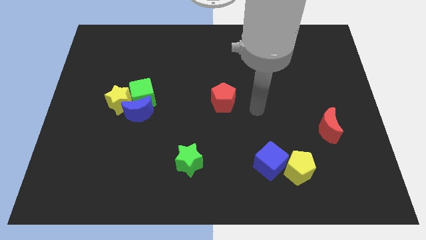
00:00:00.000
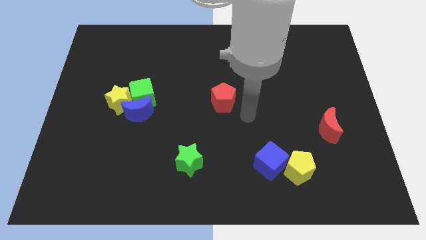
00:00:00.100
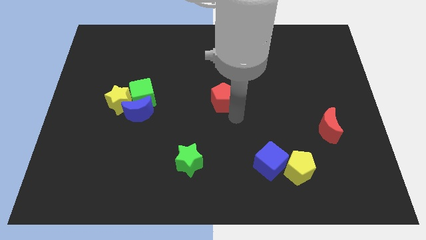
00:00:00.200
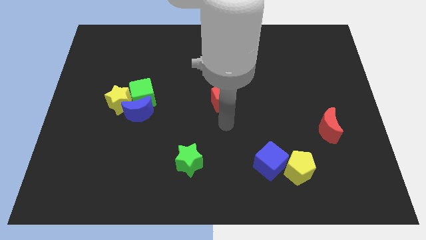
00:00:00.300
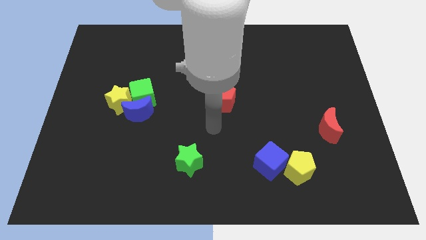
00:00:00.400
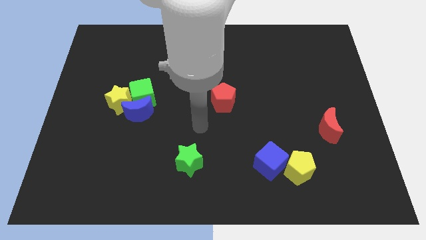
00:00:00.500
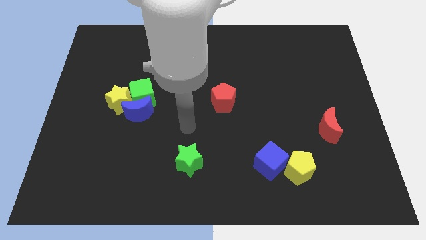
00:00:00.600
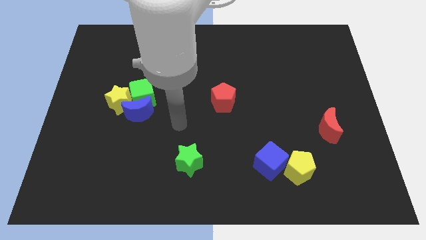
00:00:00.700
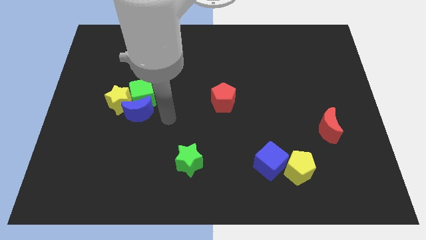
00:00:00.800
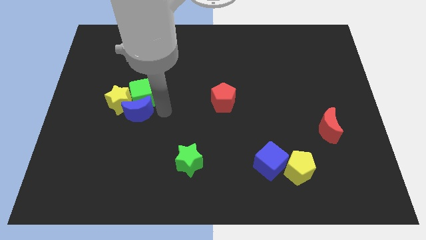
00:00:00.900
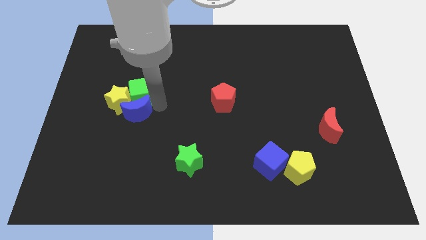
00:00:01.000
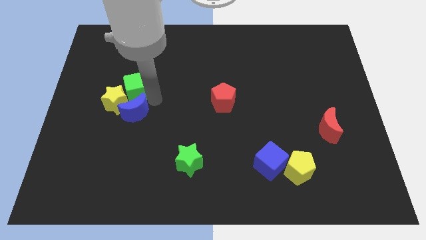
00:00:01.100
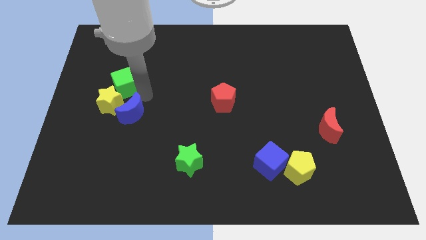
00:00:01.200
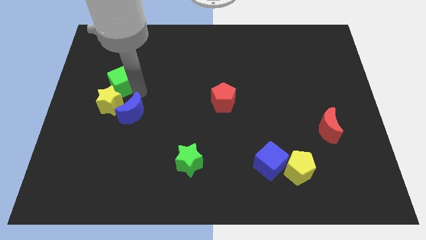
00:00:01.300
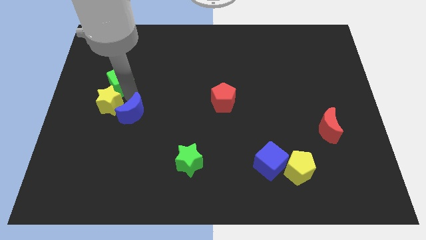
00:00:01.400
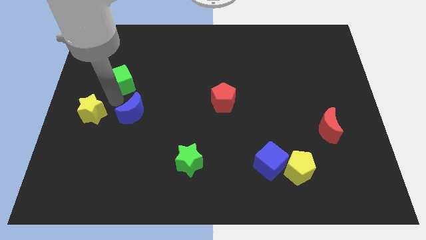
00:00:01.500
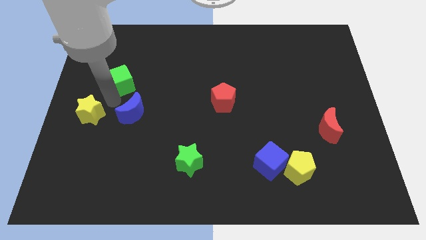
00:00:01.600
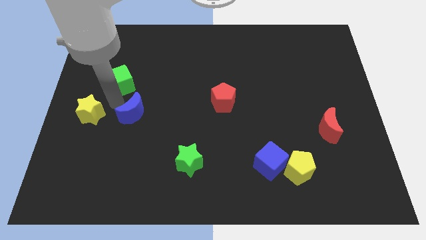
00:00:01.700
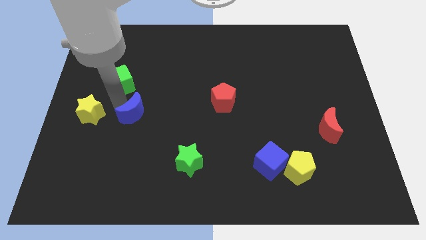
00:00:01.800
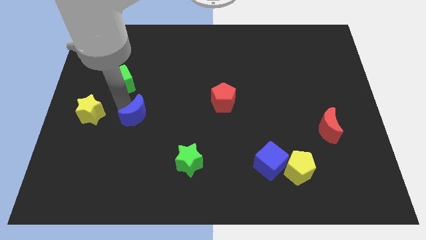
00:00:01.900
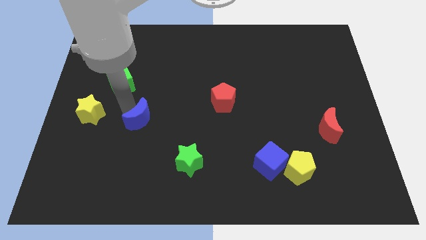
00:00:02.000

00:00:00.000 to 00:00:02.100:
move the blue moon away from the green cube and yellow star

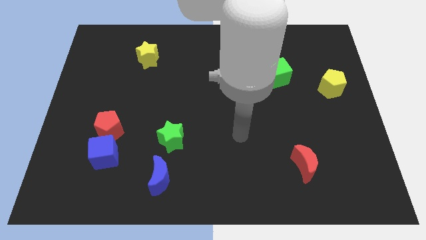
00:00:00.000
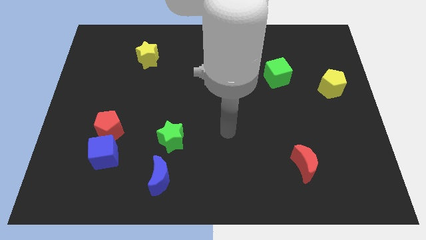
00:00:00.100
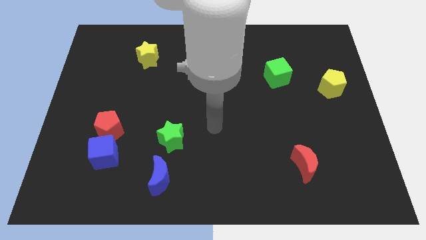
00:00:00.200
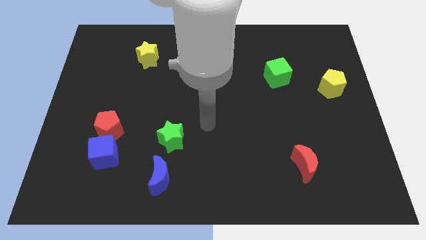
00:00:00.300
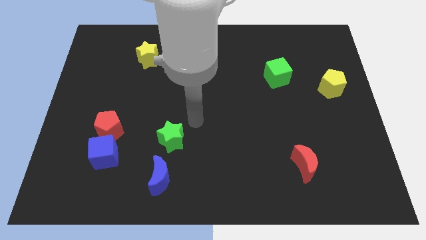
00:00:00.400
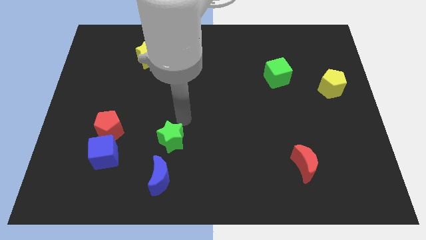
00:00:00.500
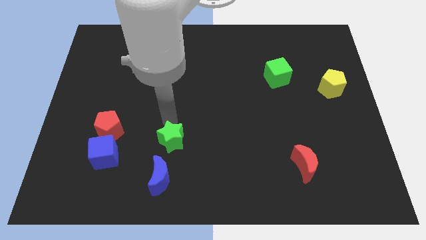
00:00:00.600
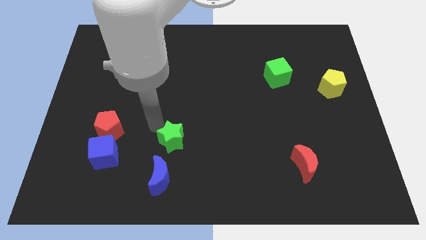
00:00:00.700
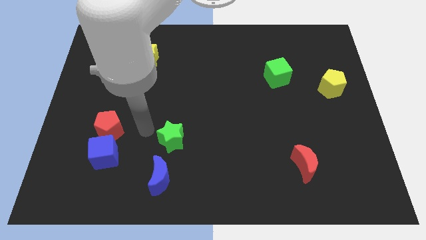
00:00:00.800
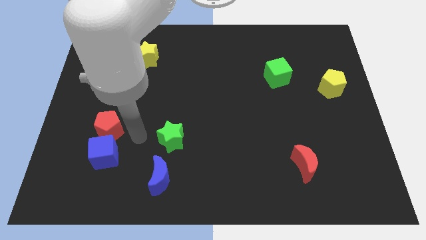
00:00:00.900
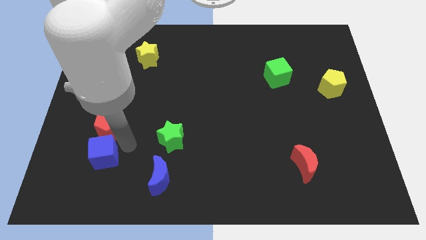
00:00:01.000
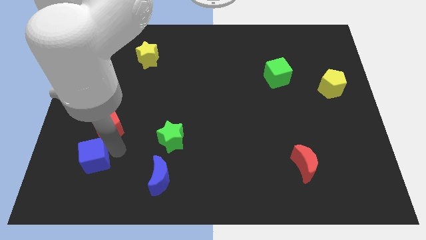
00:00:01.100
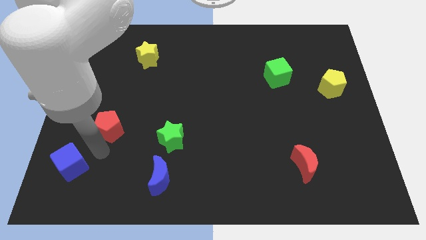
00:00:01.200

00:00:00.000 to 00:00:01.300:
move the red pentagon away from the blue cube

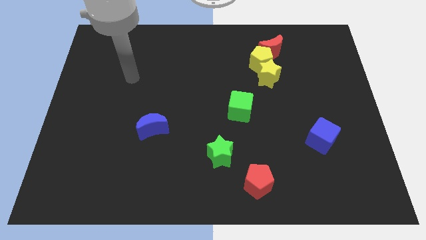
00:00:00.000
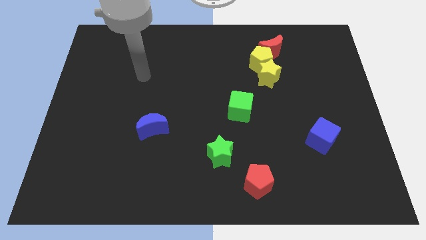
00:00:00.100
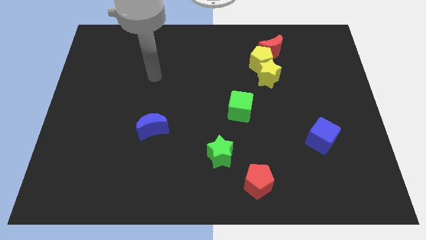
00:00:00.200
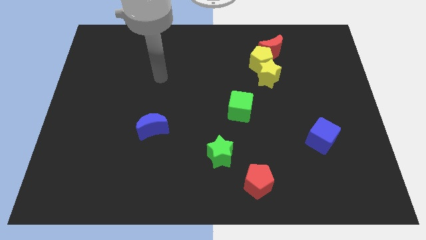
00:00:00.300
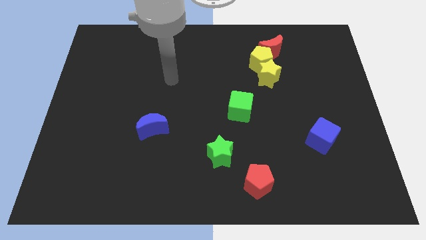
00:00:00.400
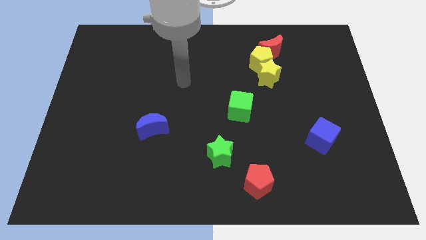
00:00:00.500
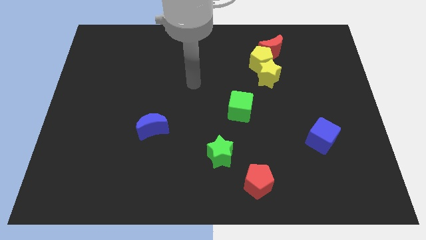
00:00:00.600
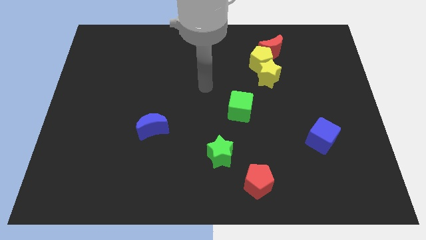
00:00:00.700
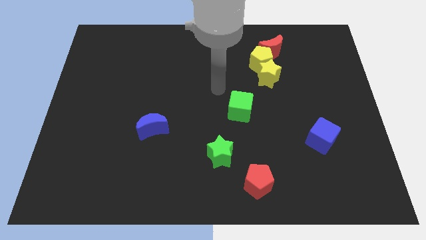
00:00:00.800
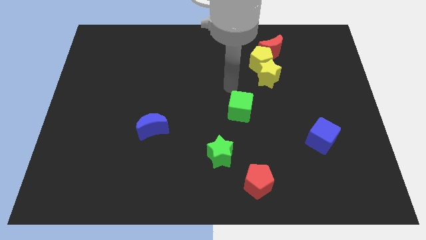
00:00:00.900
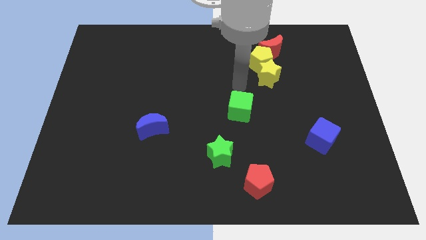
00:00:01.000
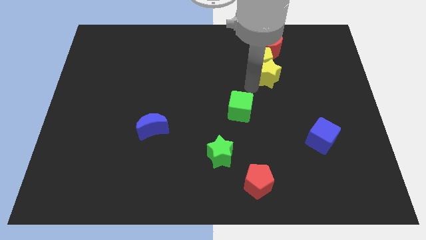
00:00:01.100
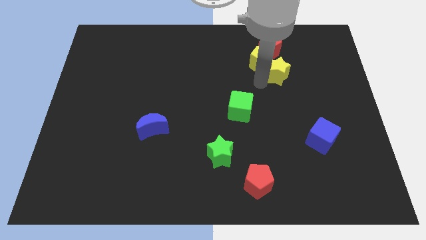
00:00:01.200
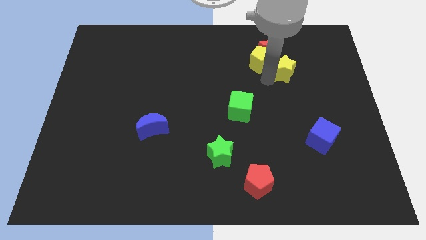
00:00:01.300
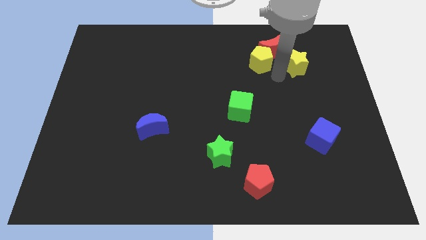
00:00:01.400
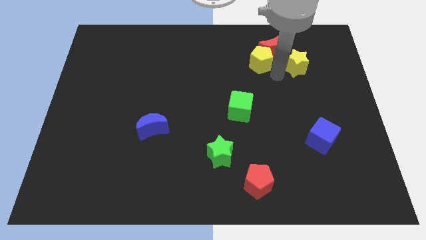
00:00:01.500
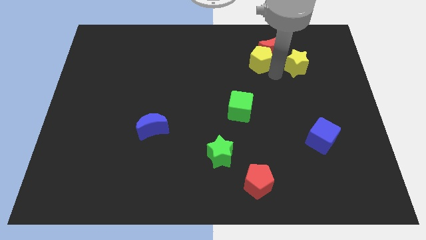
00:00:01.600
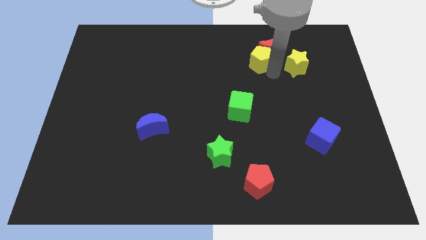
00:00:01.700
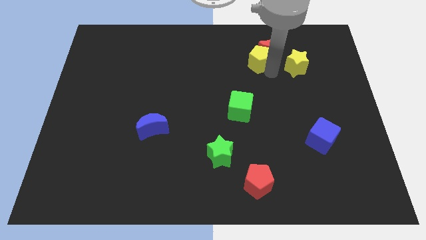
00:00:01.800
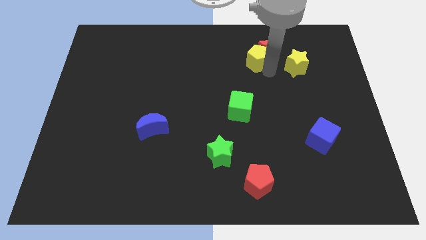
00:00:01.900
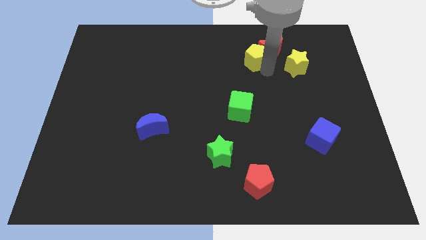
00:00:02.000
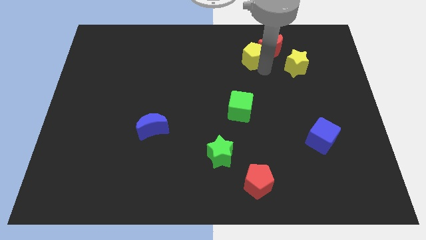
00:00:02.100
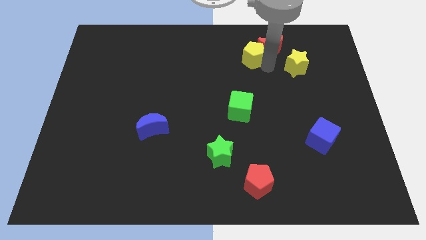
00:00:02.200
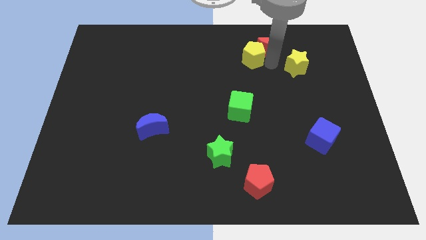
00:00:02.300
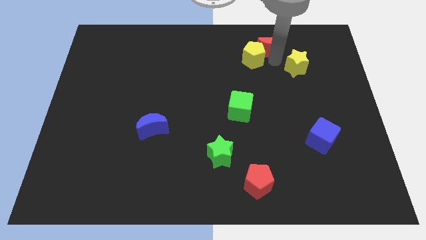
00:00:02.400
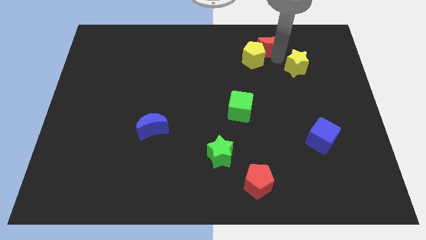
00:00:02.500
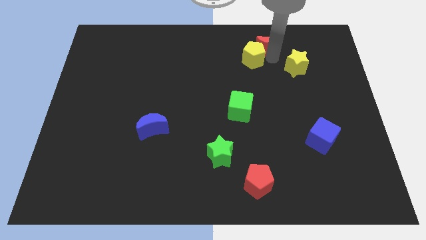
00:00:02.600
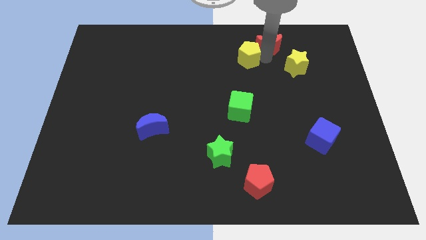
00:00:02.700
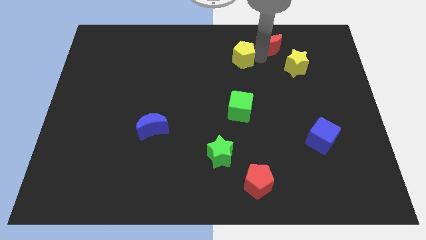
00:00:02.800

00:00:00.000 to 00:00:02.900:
move the yellow pentagon away from the red moon and yellow star

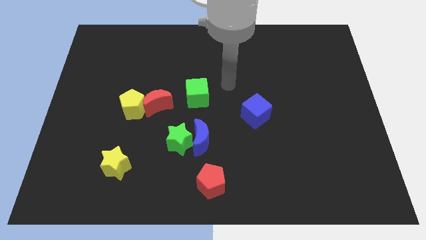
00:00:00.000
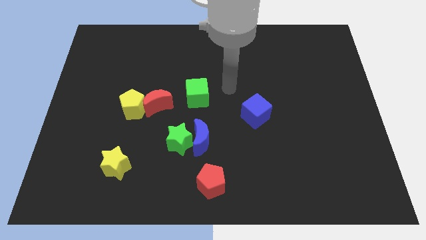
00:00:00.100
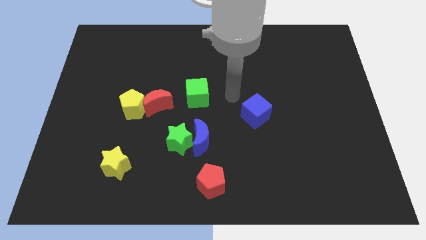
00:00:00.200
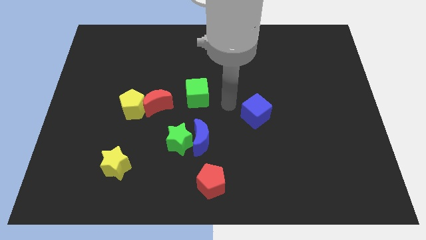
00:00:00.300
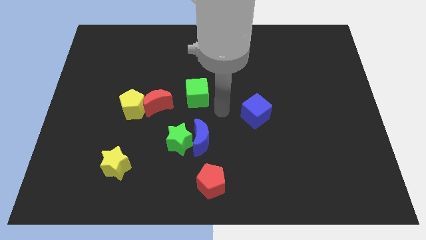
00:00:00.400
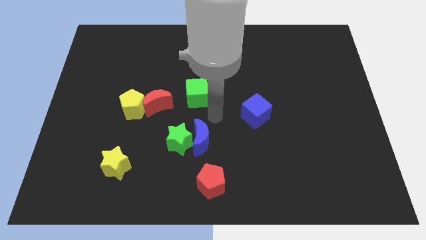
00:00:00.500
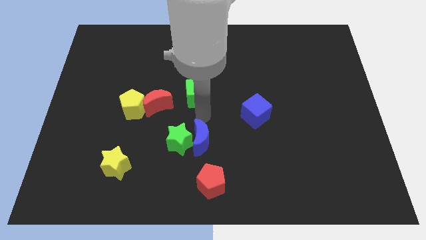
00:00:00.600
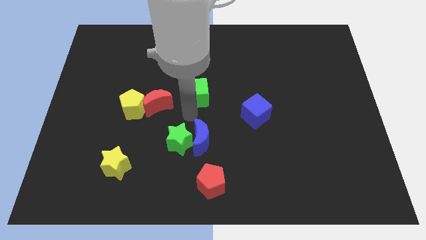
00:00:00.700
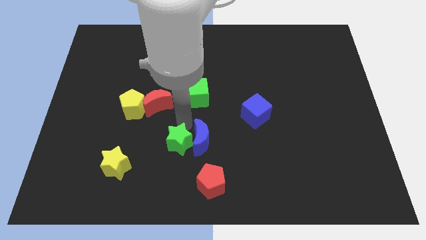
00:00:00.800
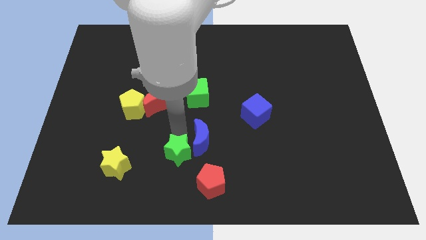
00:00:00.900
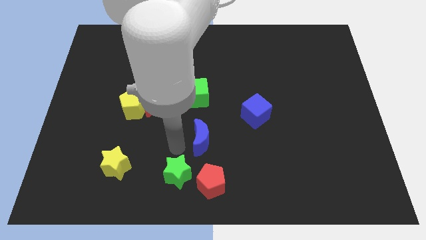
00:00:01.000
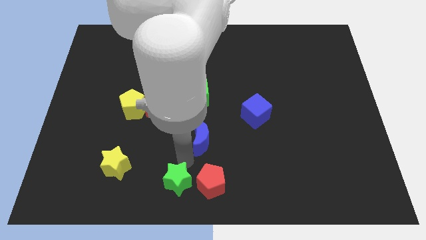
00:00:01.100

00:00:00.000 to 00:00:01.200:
move the blue moon away from the green star

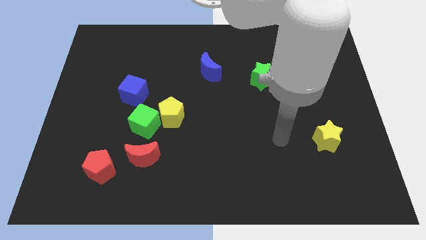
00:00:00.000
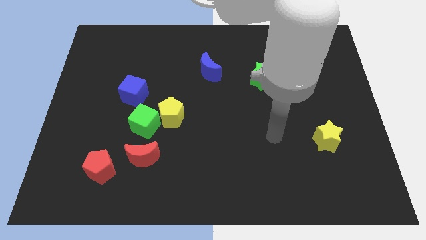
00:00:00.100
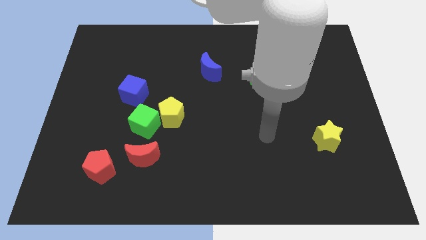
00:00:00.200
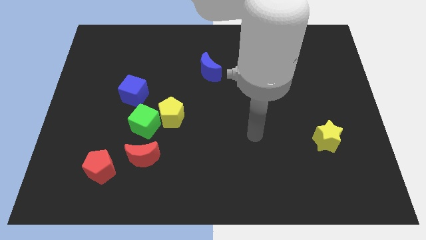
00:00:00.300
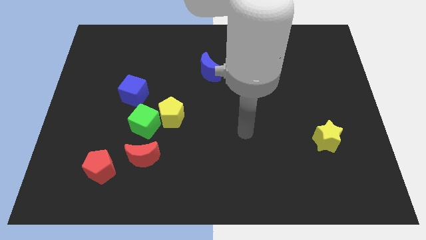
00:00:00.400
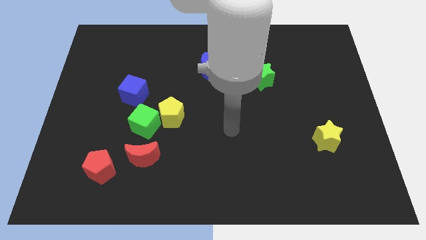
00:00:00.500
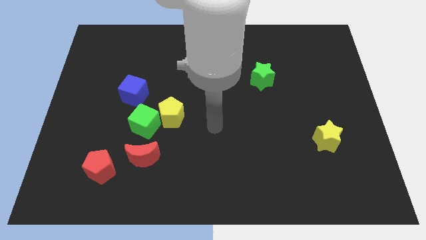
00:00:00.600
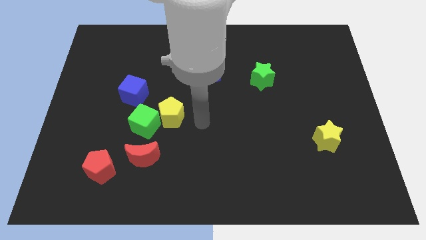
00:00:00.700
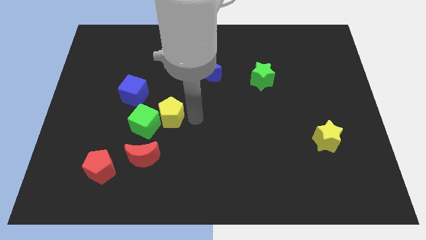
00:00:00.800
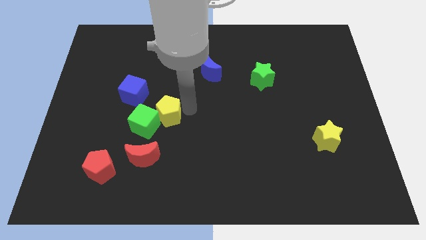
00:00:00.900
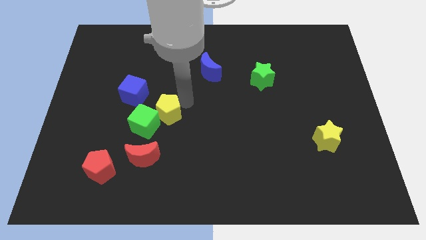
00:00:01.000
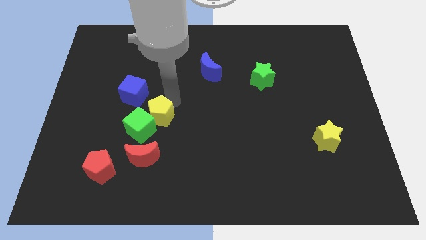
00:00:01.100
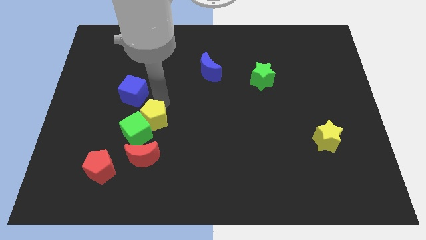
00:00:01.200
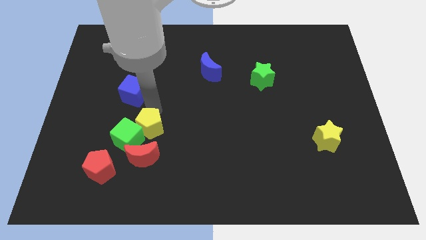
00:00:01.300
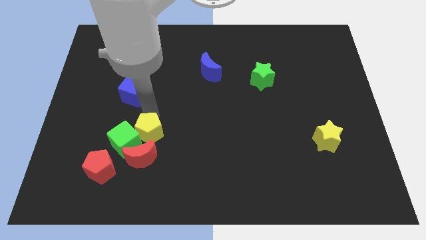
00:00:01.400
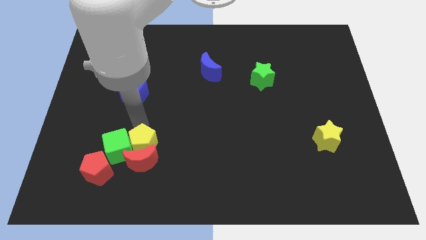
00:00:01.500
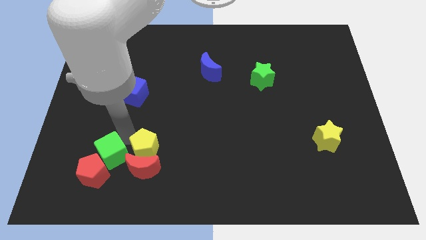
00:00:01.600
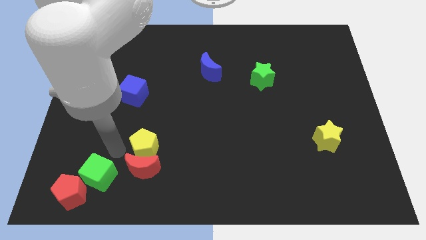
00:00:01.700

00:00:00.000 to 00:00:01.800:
separate the yellow pentagon from the green cube

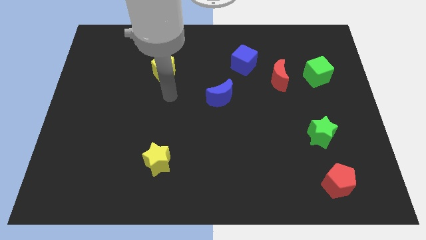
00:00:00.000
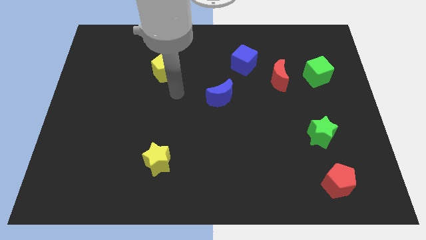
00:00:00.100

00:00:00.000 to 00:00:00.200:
move the blue cube away from the red moon
